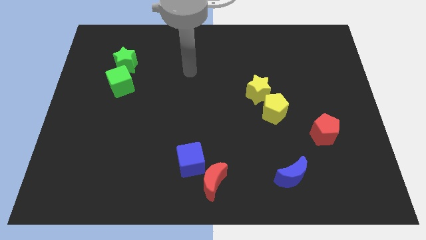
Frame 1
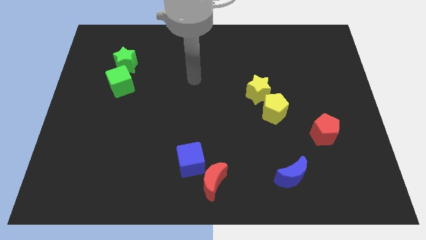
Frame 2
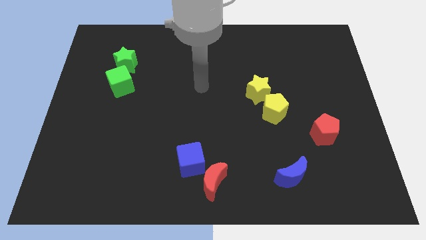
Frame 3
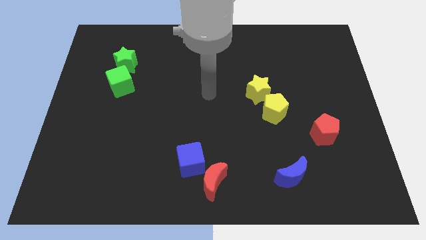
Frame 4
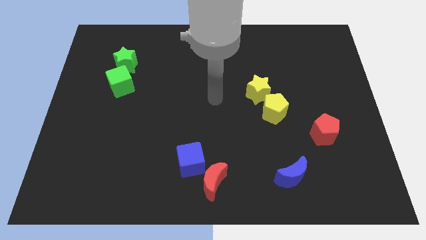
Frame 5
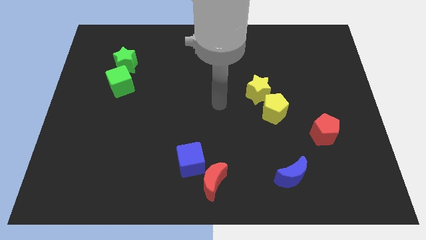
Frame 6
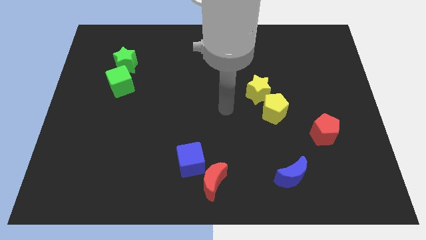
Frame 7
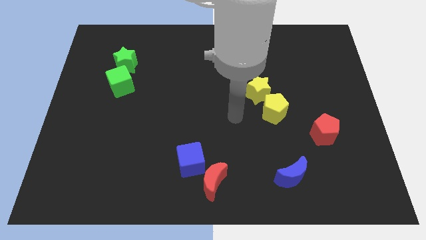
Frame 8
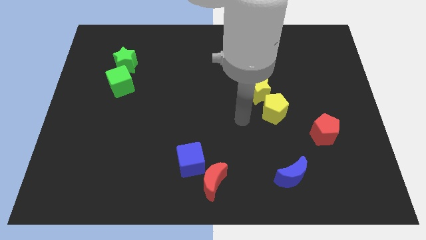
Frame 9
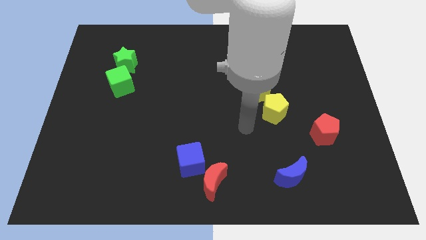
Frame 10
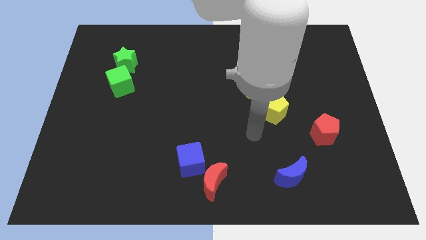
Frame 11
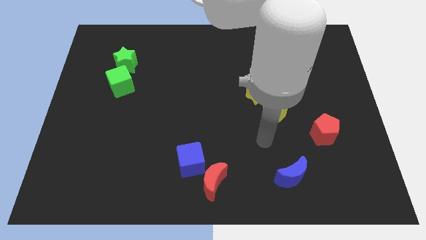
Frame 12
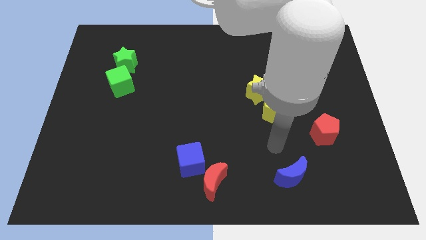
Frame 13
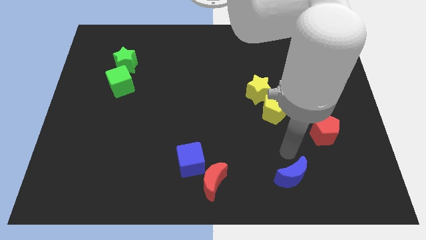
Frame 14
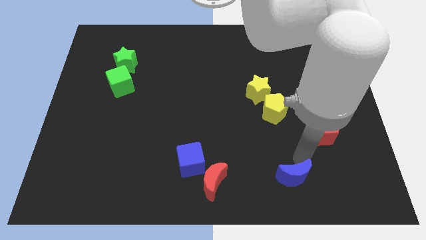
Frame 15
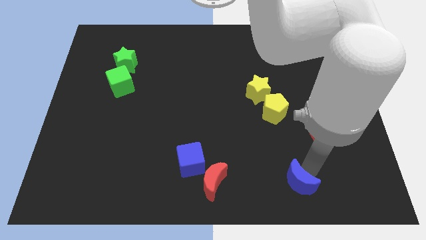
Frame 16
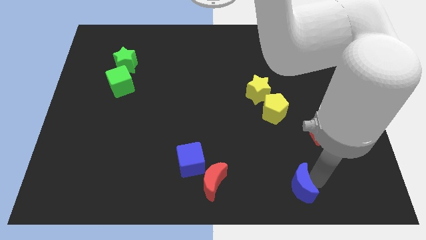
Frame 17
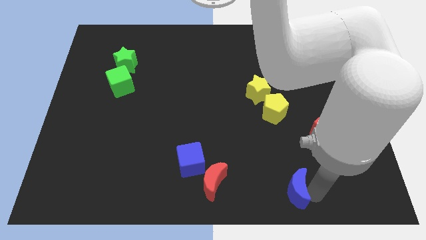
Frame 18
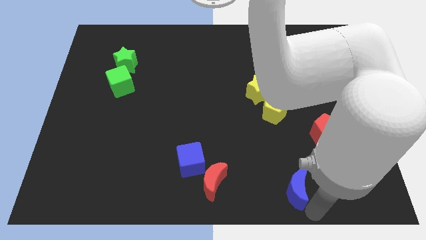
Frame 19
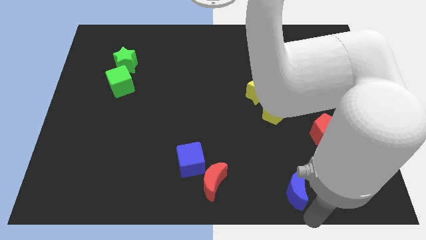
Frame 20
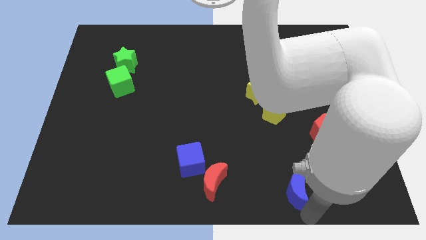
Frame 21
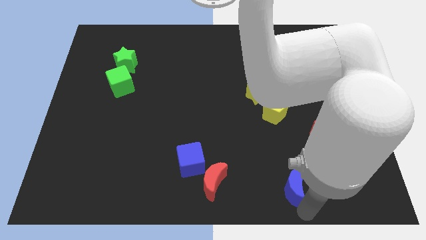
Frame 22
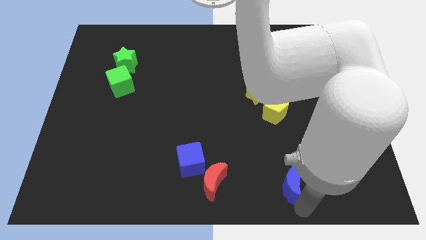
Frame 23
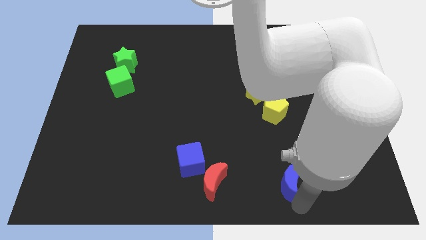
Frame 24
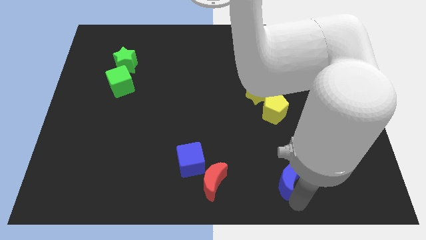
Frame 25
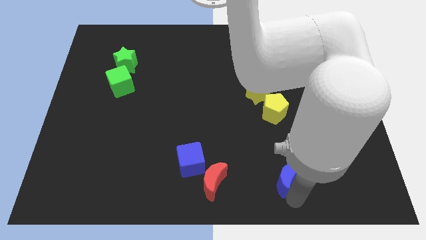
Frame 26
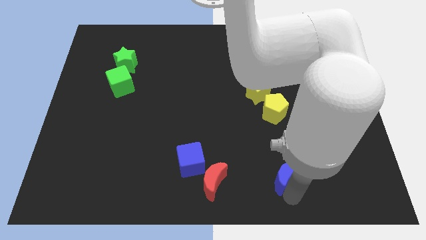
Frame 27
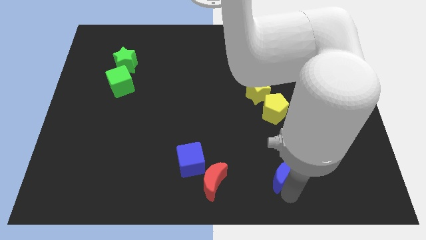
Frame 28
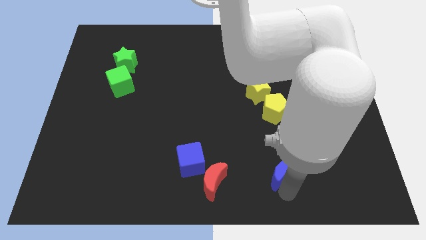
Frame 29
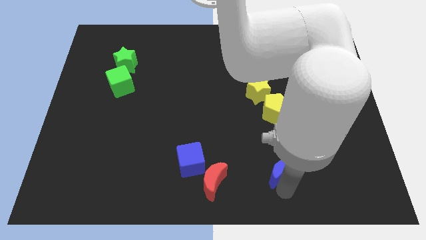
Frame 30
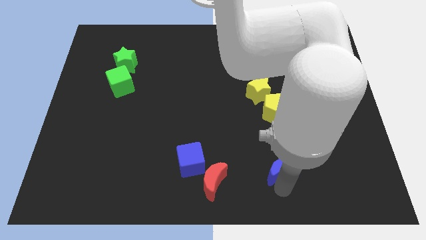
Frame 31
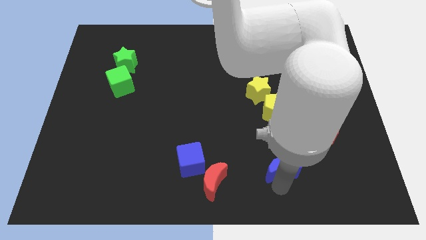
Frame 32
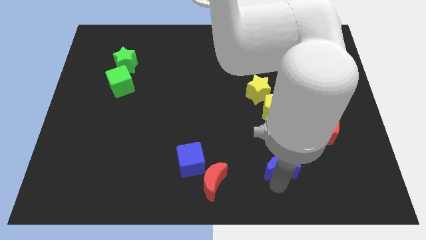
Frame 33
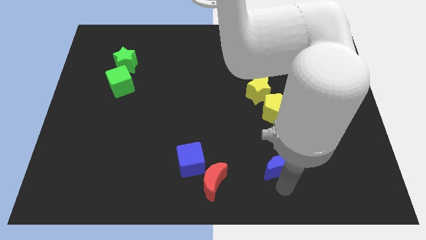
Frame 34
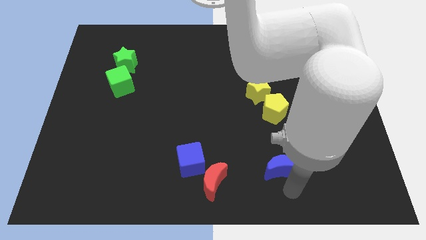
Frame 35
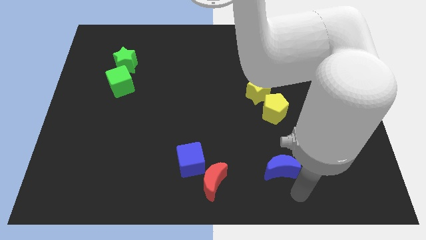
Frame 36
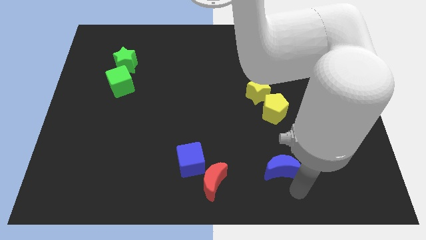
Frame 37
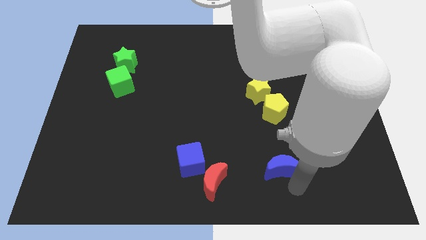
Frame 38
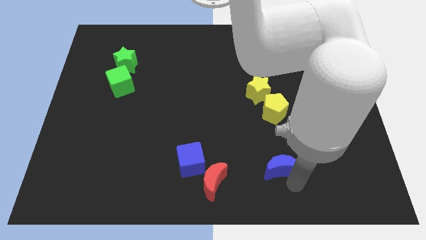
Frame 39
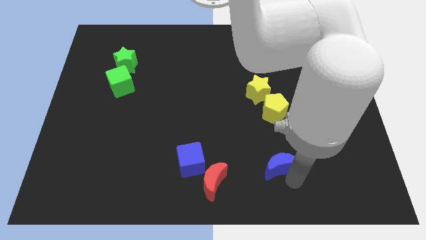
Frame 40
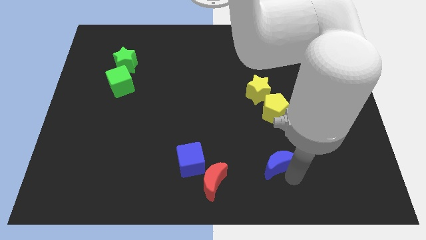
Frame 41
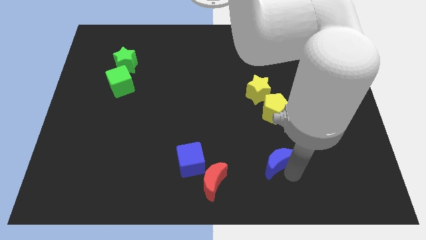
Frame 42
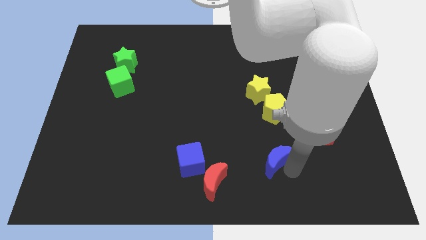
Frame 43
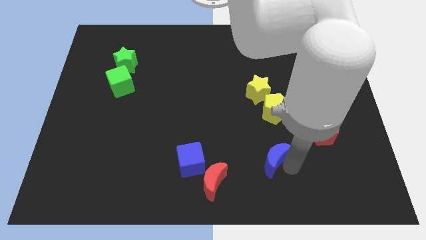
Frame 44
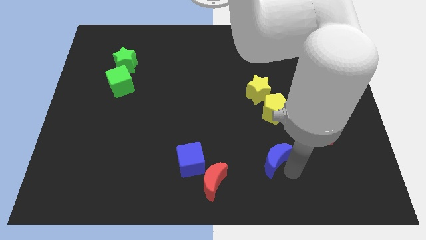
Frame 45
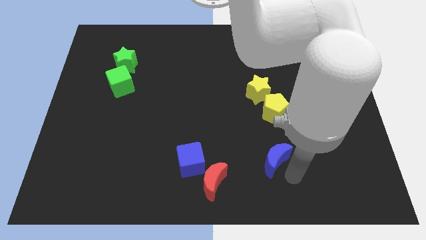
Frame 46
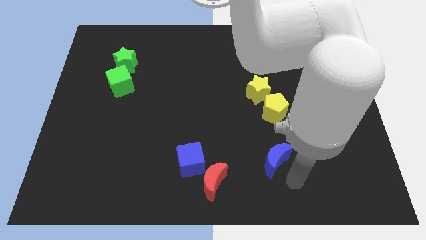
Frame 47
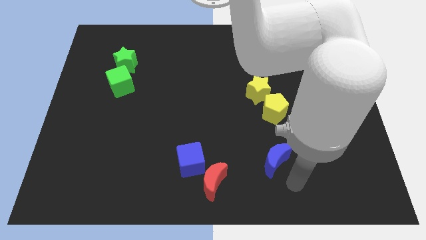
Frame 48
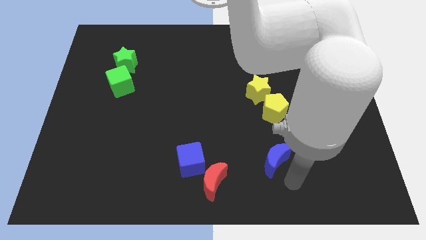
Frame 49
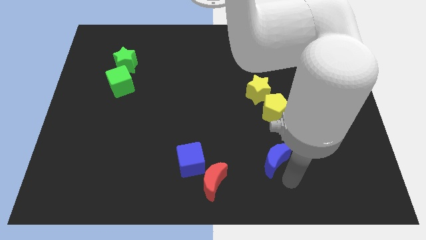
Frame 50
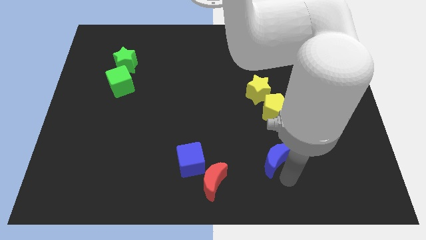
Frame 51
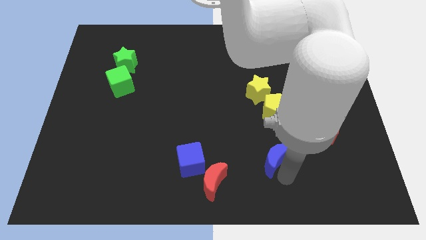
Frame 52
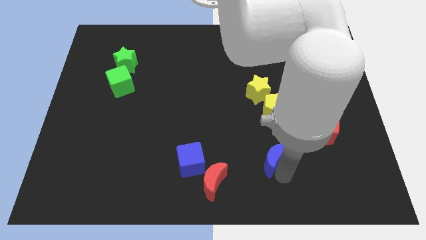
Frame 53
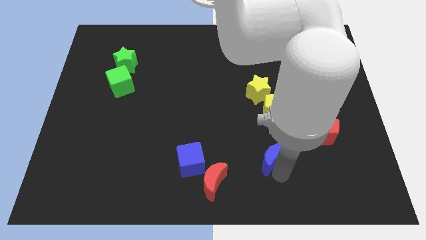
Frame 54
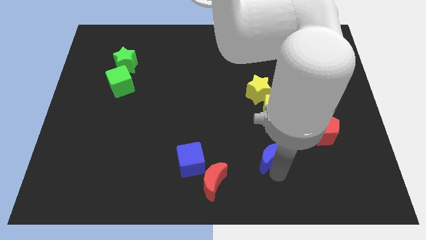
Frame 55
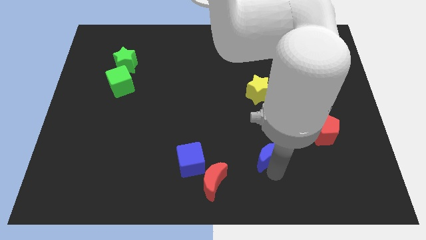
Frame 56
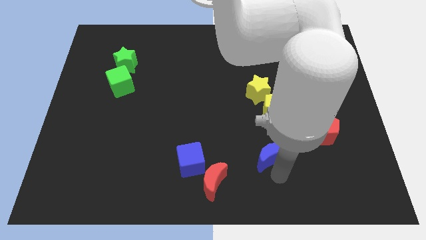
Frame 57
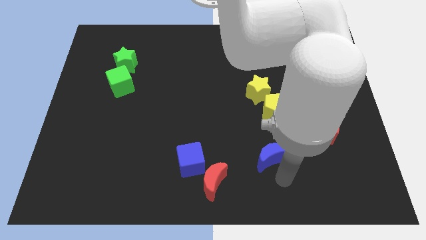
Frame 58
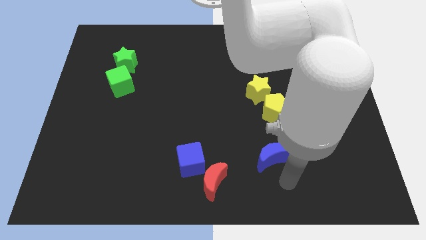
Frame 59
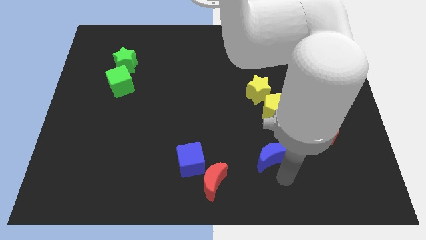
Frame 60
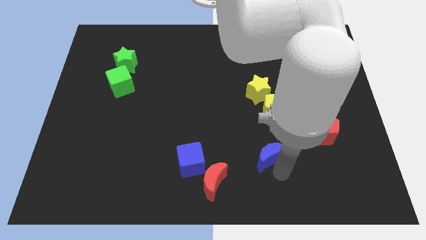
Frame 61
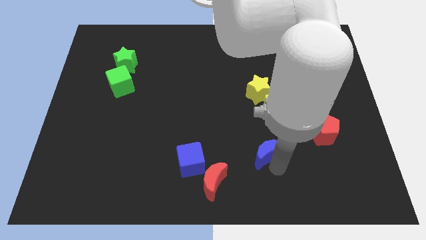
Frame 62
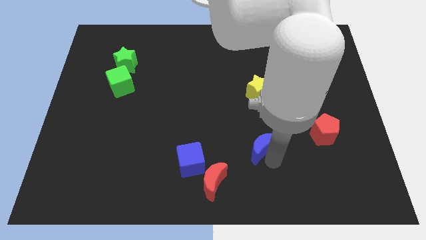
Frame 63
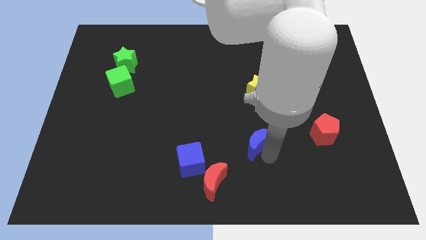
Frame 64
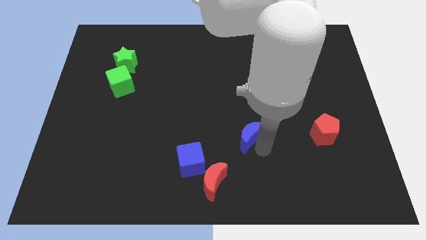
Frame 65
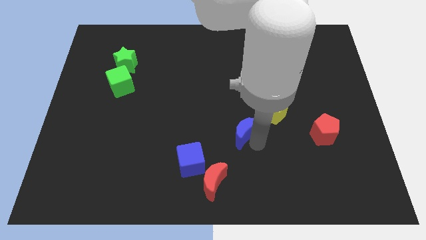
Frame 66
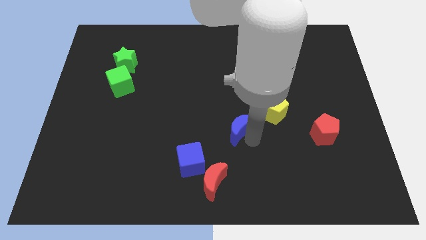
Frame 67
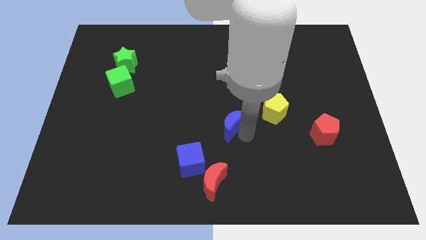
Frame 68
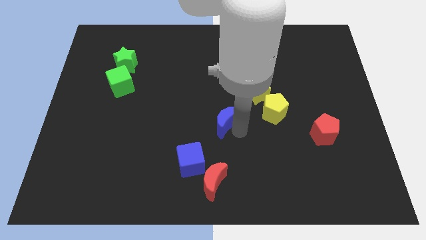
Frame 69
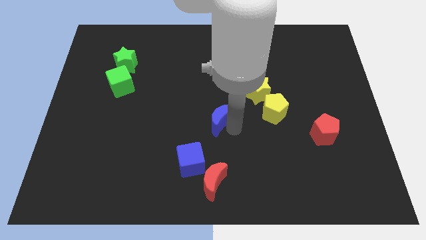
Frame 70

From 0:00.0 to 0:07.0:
slide the blue moon up and to the left

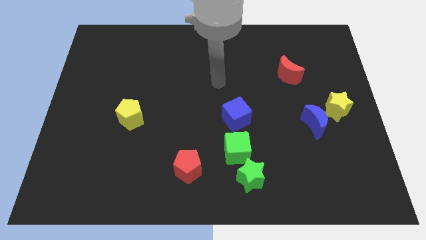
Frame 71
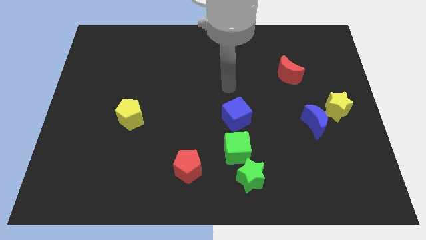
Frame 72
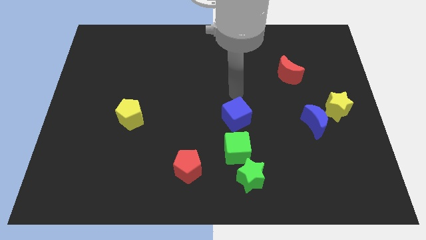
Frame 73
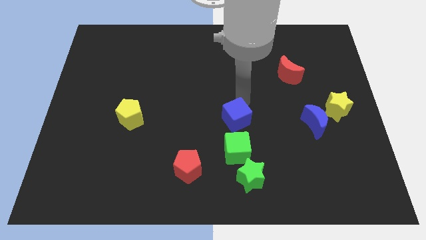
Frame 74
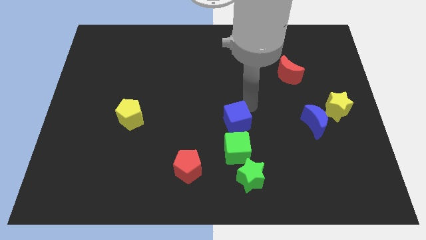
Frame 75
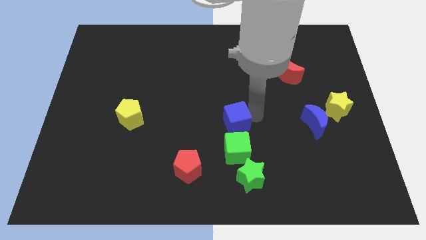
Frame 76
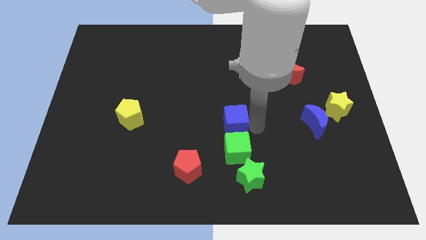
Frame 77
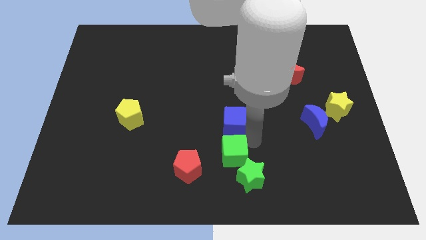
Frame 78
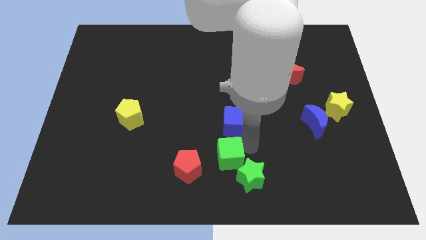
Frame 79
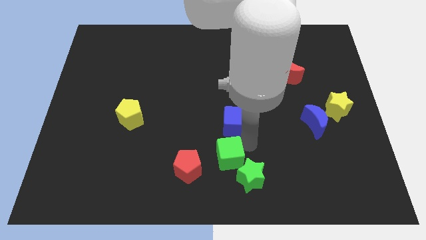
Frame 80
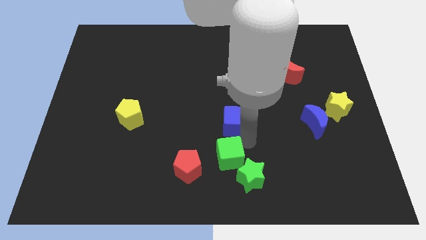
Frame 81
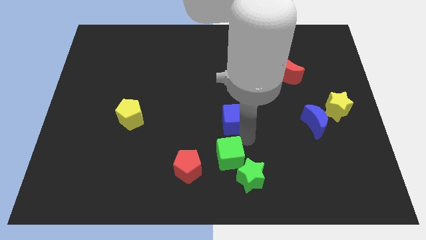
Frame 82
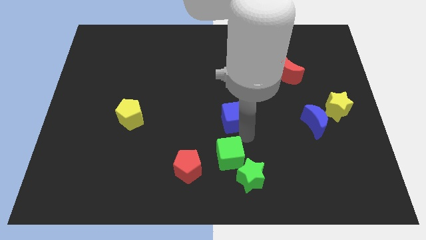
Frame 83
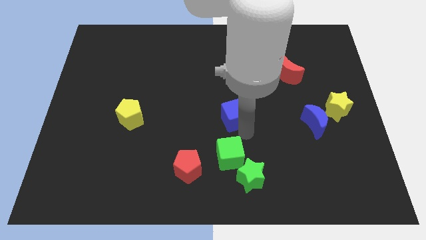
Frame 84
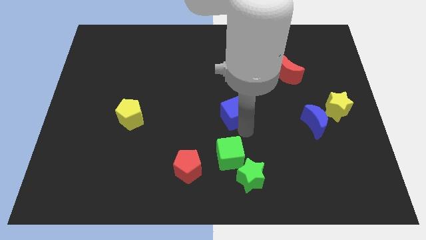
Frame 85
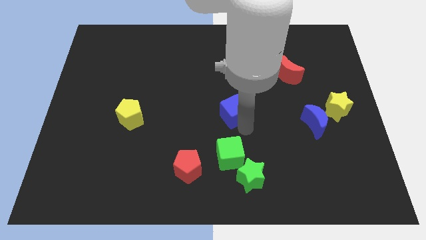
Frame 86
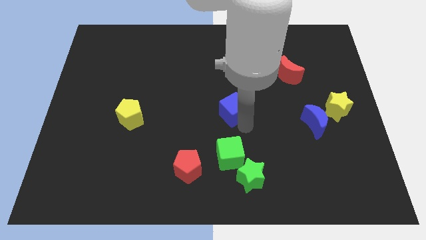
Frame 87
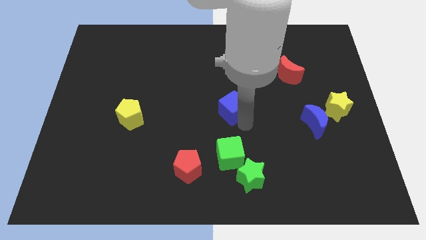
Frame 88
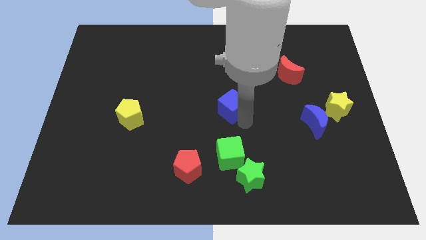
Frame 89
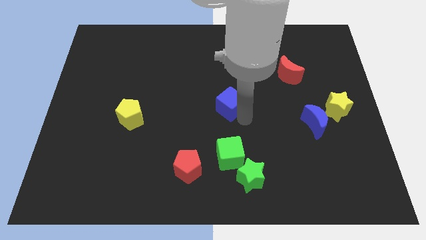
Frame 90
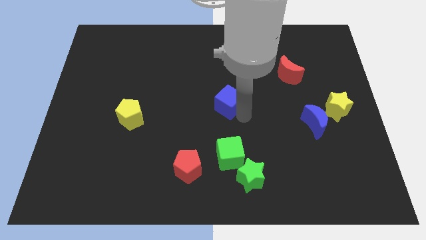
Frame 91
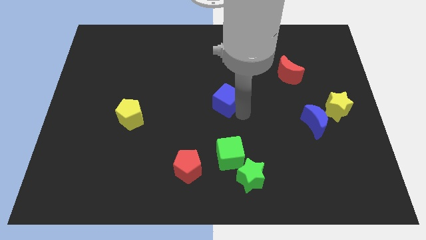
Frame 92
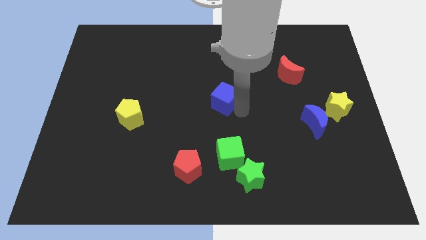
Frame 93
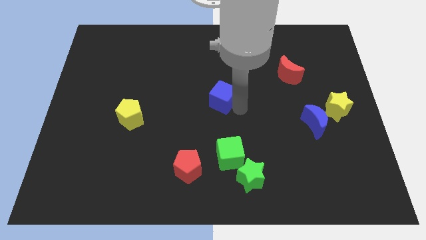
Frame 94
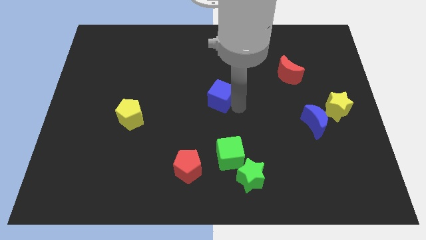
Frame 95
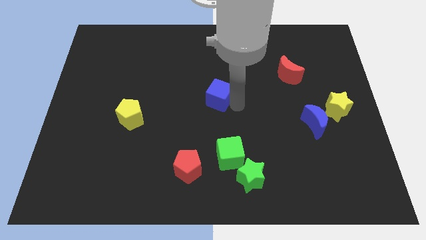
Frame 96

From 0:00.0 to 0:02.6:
slide the blue cube upwards and then to the left a little bit
